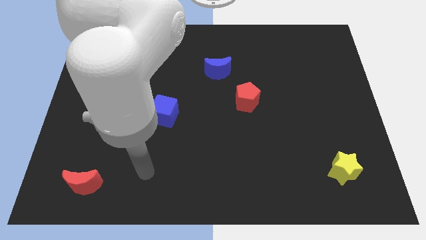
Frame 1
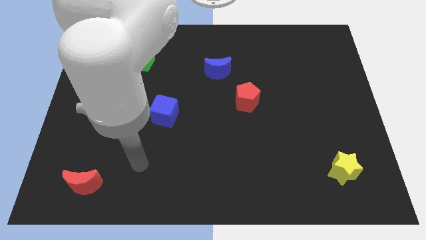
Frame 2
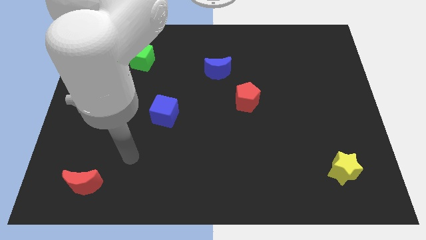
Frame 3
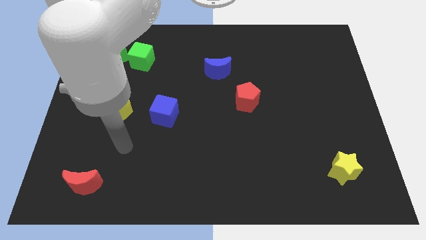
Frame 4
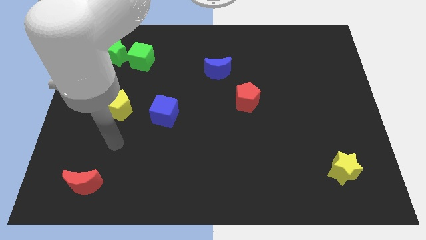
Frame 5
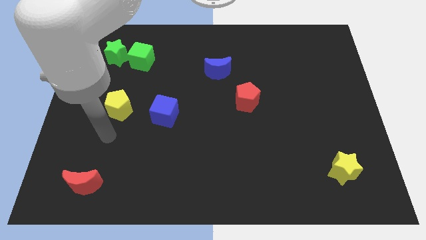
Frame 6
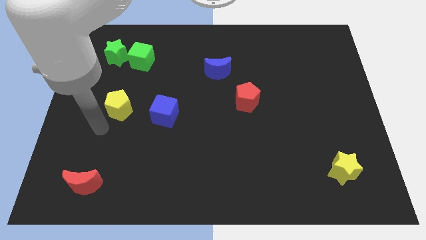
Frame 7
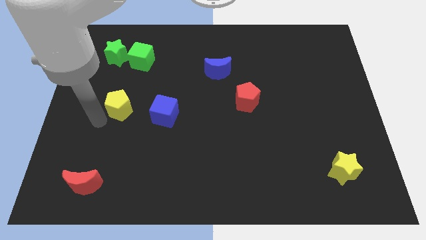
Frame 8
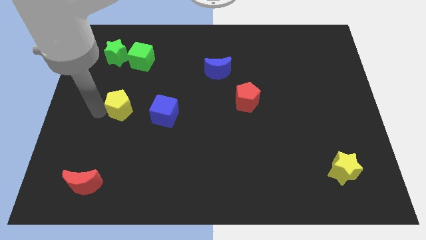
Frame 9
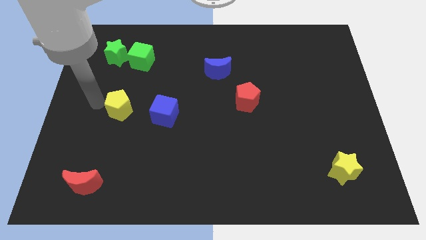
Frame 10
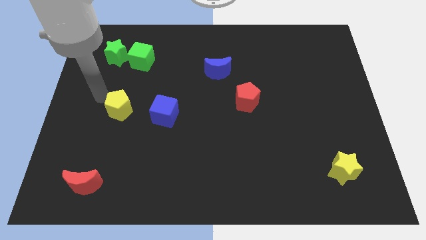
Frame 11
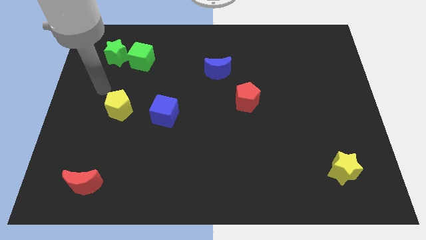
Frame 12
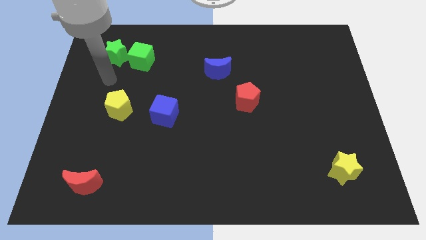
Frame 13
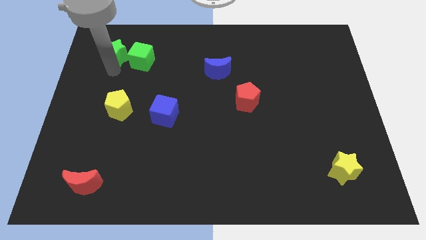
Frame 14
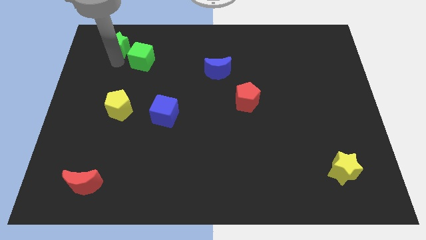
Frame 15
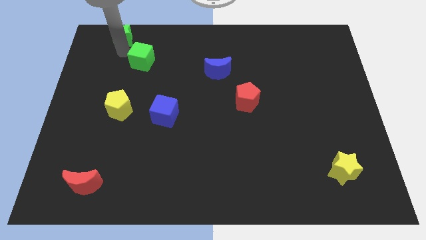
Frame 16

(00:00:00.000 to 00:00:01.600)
move the green cube away from the green star

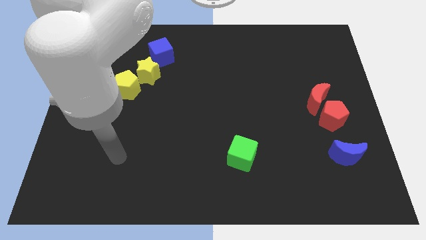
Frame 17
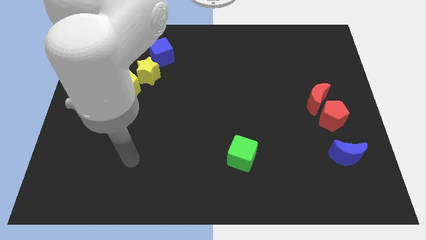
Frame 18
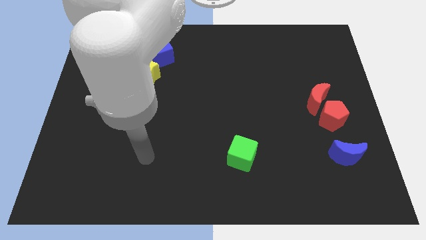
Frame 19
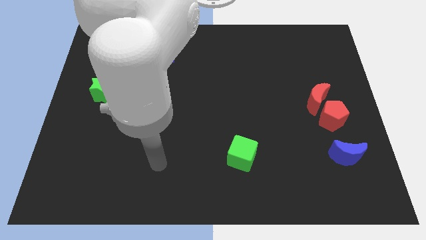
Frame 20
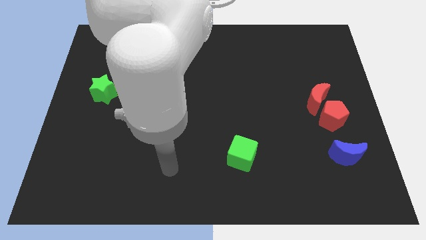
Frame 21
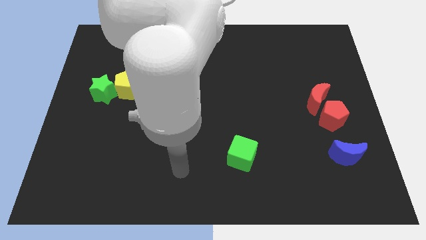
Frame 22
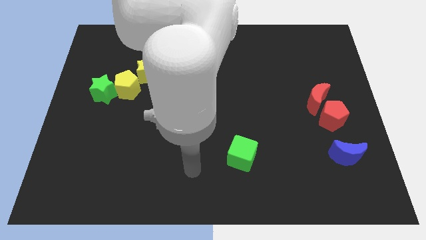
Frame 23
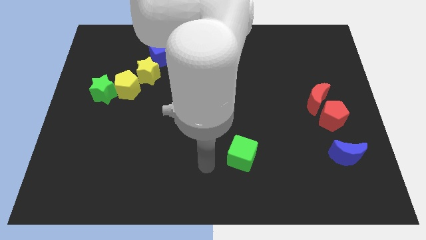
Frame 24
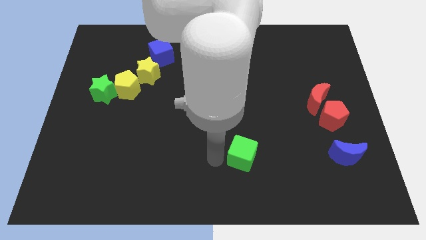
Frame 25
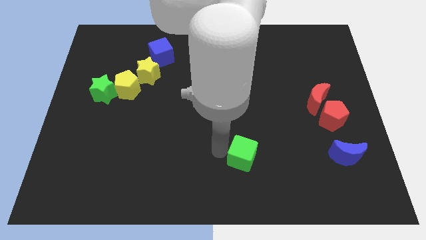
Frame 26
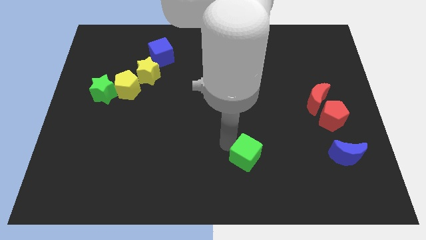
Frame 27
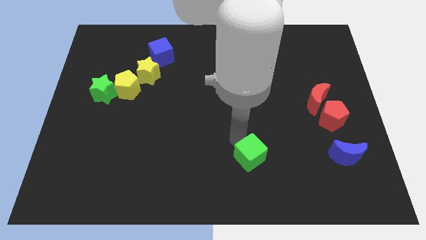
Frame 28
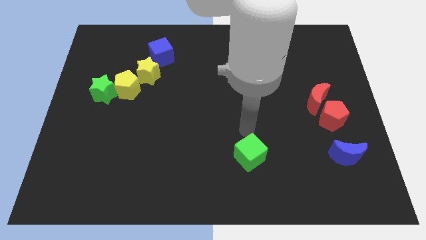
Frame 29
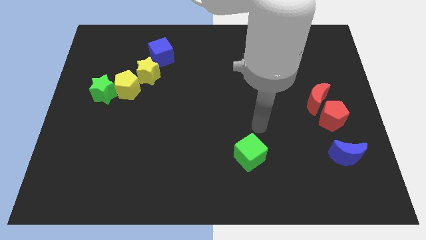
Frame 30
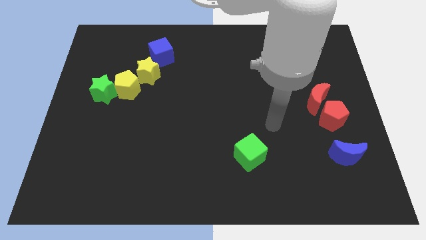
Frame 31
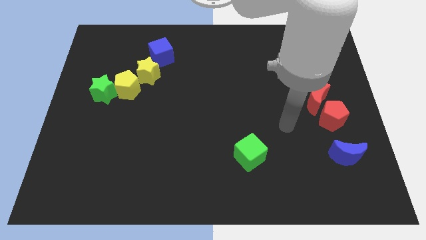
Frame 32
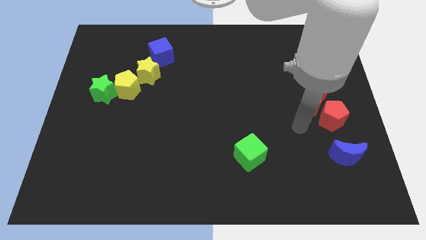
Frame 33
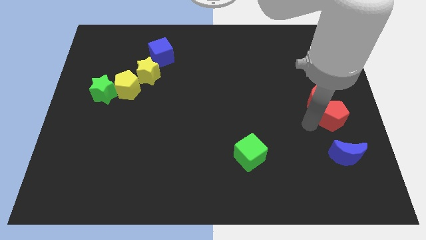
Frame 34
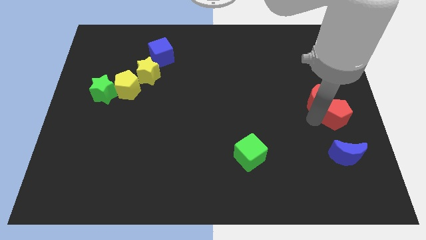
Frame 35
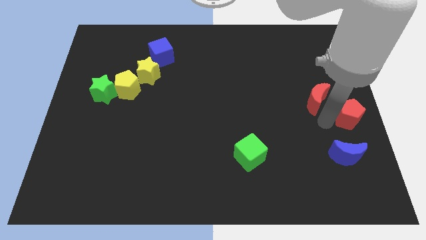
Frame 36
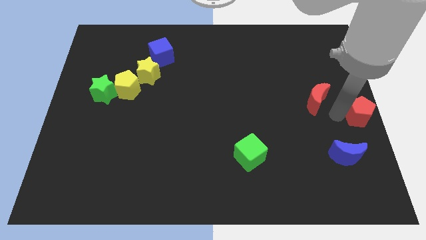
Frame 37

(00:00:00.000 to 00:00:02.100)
separate the red moon from the red pentagon

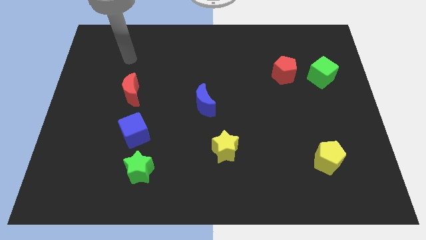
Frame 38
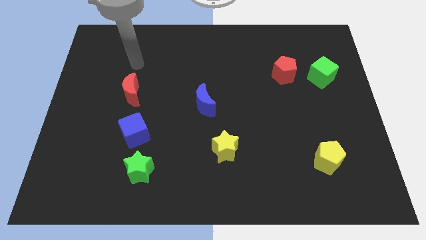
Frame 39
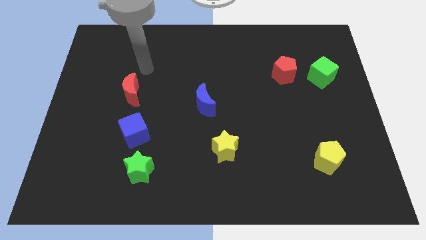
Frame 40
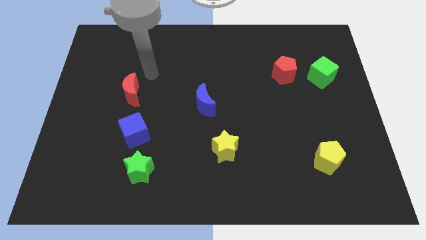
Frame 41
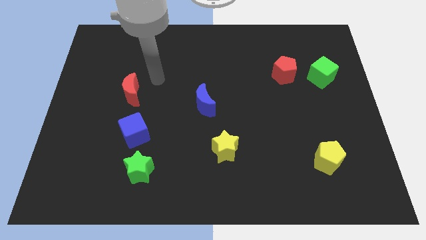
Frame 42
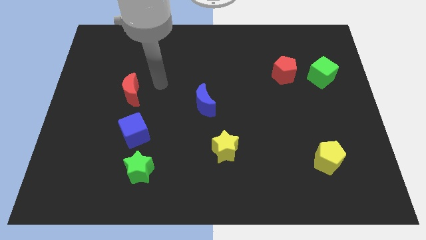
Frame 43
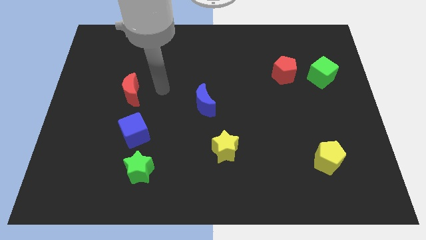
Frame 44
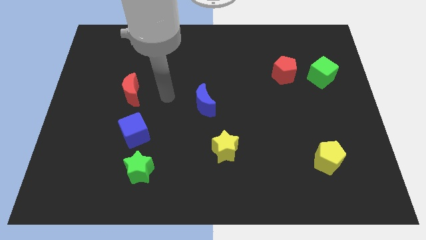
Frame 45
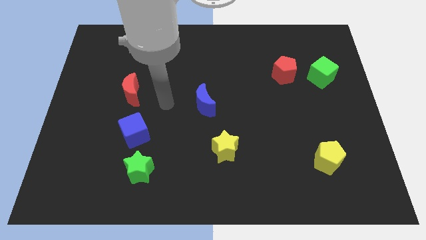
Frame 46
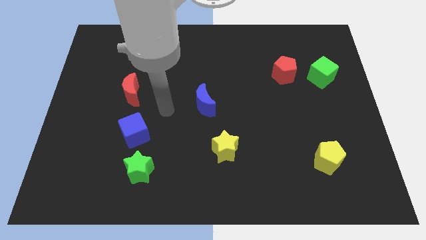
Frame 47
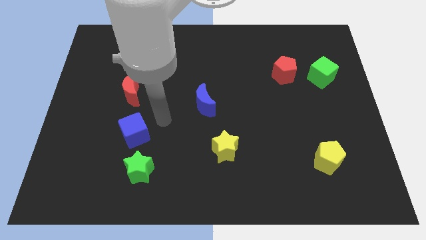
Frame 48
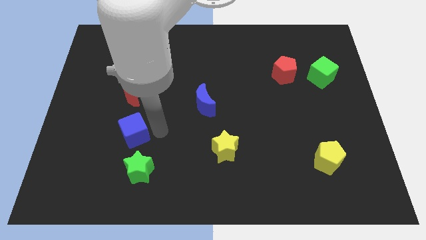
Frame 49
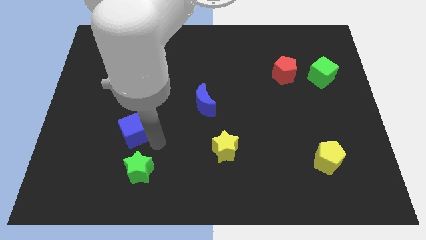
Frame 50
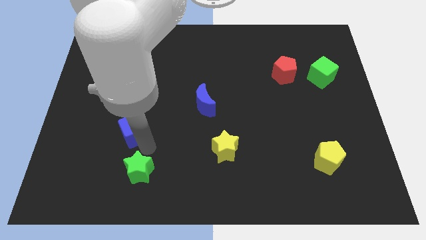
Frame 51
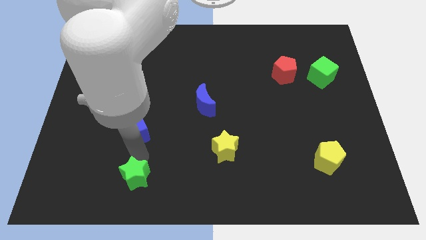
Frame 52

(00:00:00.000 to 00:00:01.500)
separate the blue cube from the green star

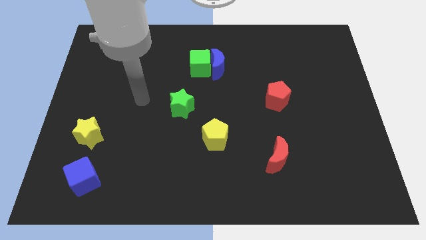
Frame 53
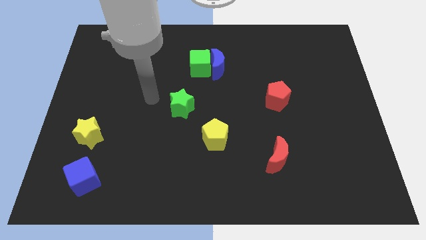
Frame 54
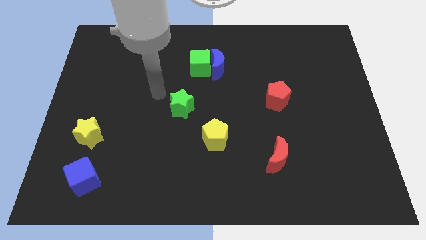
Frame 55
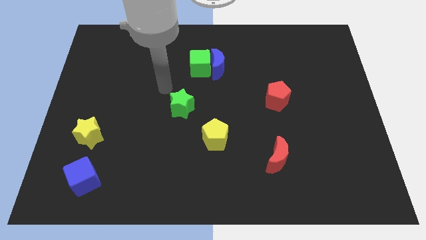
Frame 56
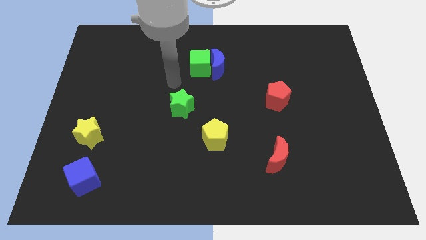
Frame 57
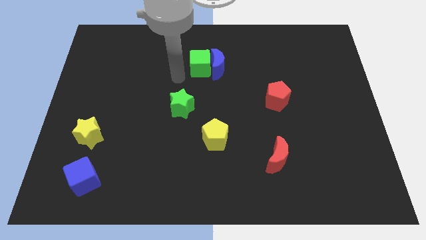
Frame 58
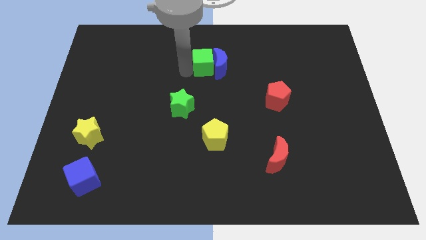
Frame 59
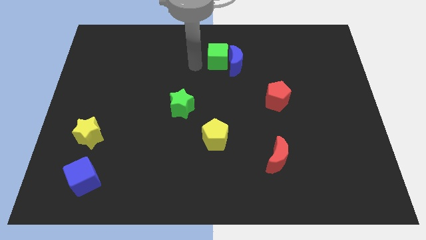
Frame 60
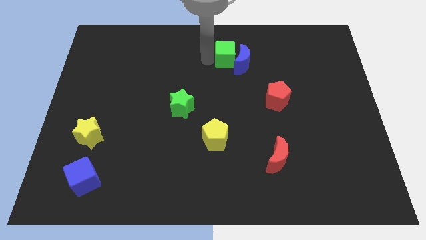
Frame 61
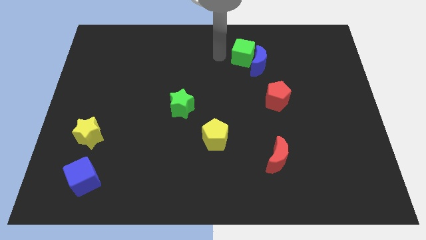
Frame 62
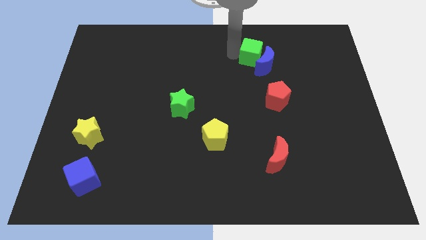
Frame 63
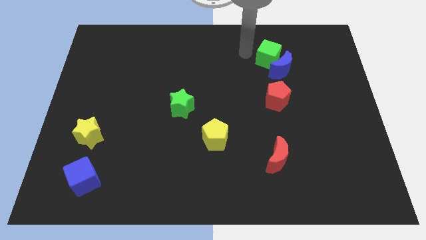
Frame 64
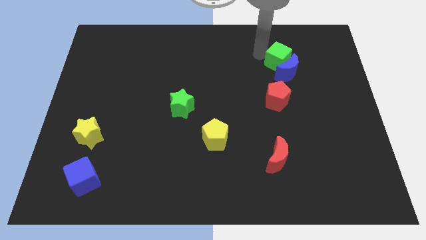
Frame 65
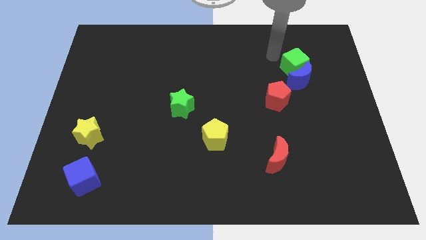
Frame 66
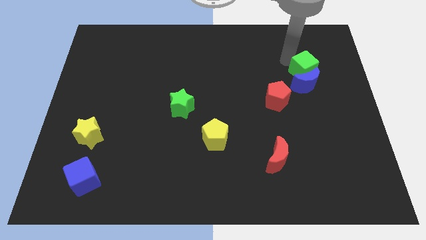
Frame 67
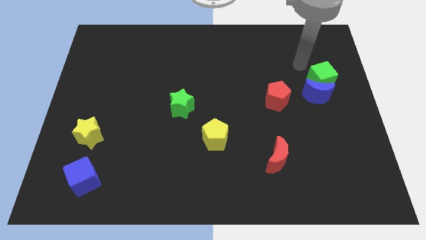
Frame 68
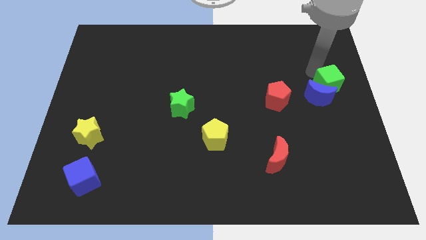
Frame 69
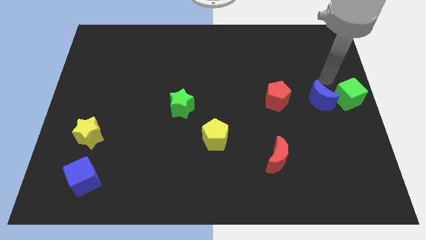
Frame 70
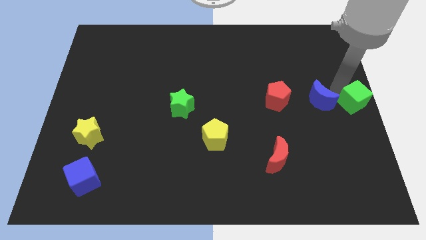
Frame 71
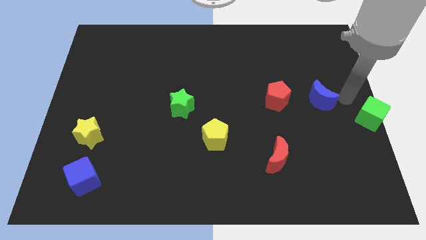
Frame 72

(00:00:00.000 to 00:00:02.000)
separate the blue moon from the green cube

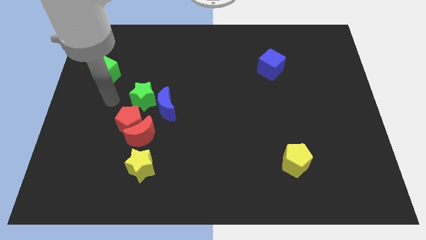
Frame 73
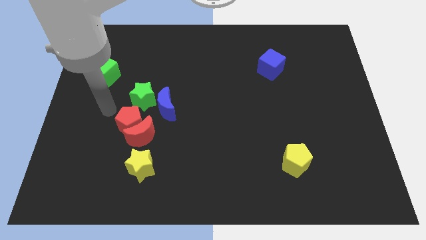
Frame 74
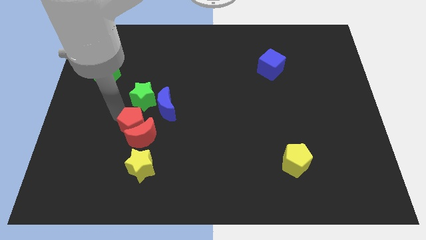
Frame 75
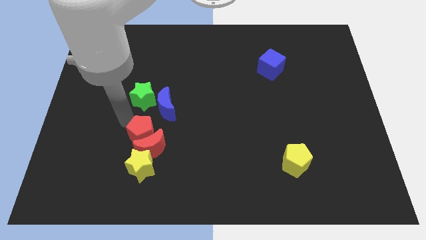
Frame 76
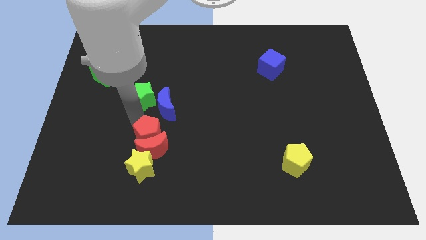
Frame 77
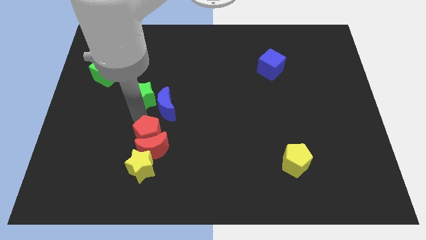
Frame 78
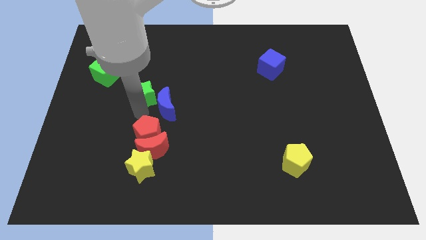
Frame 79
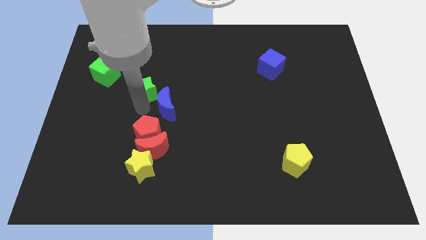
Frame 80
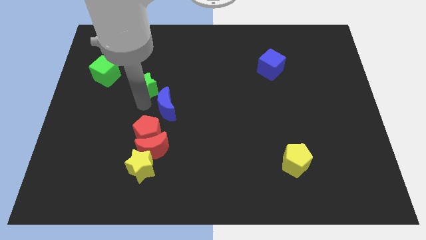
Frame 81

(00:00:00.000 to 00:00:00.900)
separate the green star from the blue moon and red pentagon

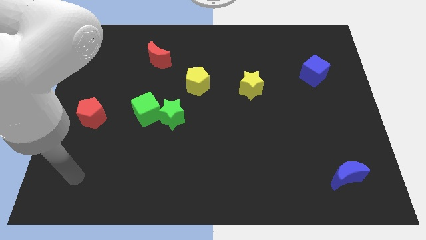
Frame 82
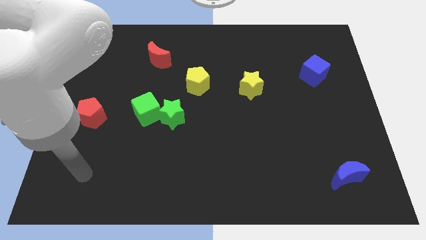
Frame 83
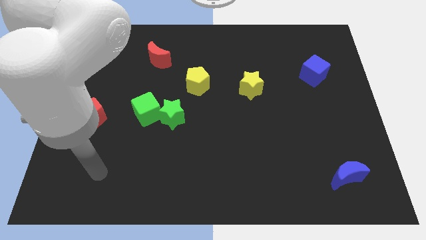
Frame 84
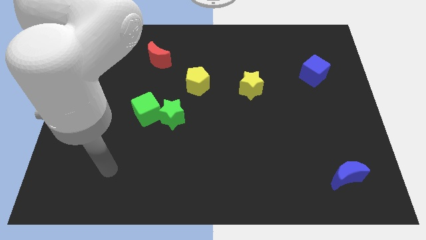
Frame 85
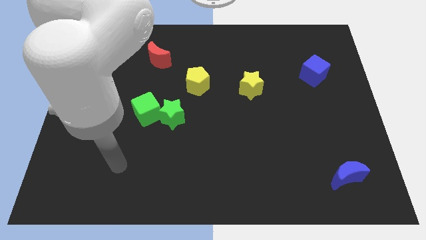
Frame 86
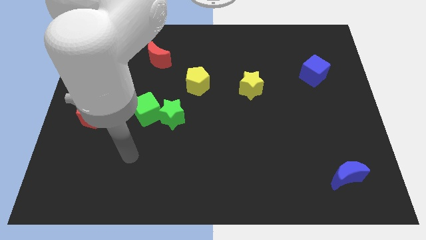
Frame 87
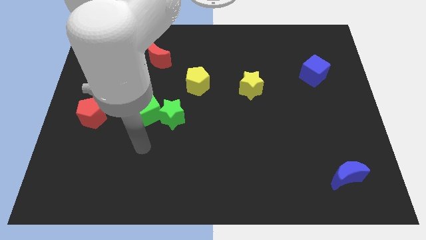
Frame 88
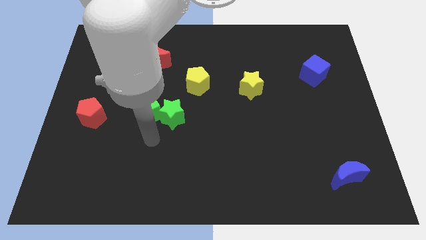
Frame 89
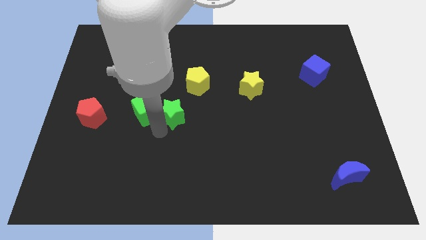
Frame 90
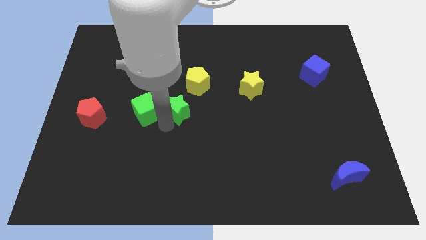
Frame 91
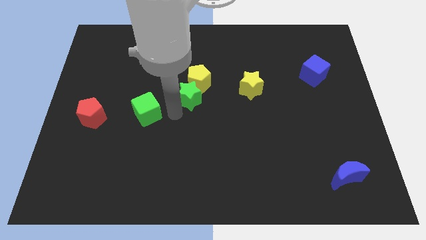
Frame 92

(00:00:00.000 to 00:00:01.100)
pull the green cube apart from the green star

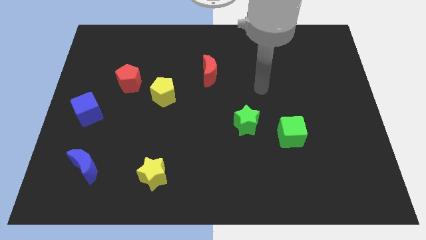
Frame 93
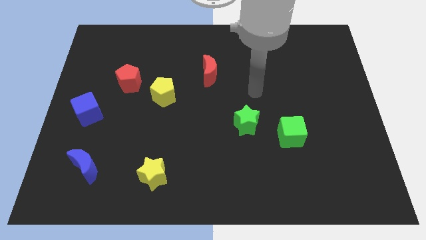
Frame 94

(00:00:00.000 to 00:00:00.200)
pull the red pentagon apart from the yellow pentagon

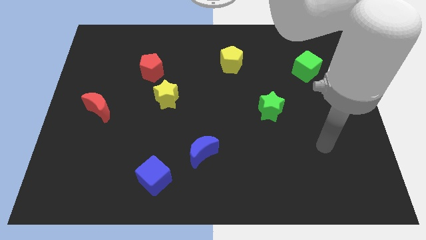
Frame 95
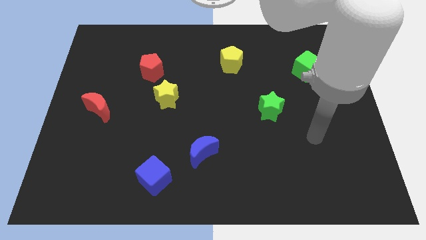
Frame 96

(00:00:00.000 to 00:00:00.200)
separate the red pentagon from the yellow star
